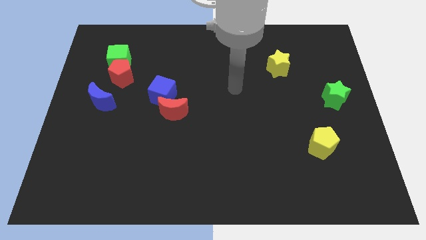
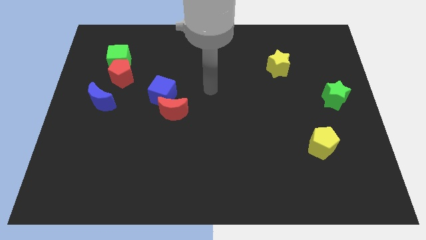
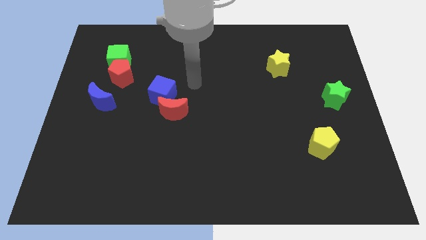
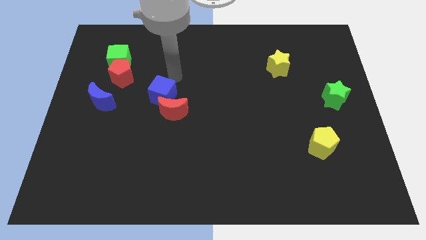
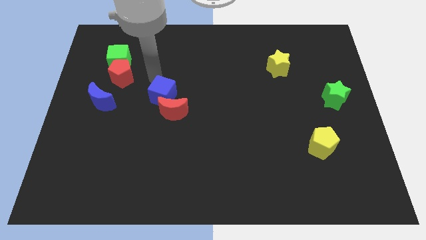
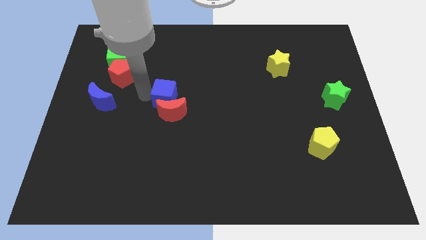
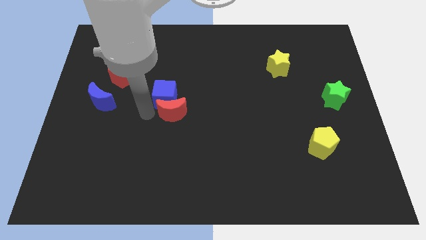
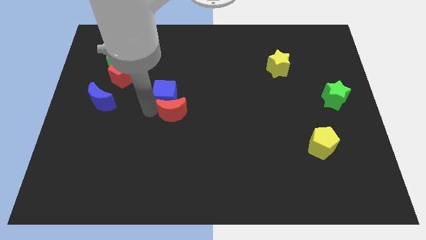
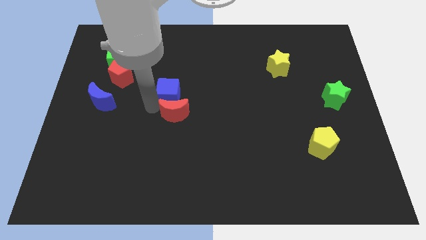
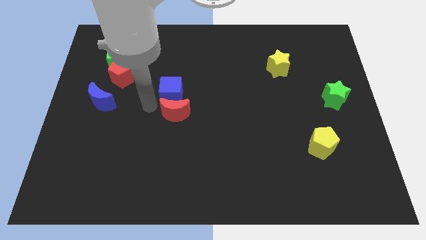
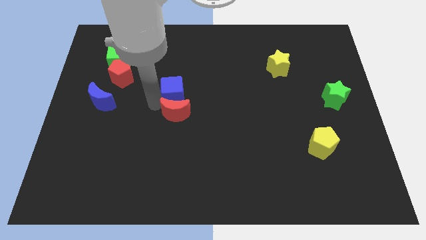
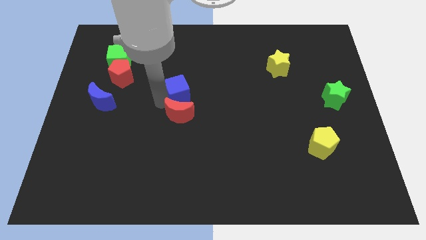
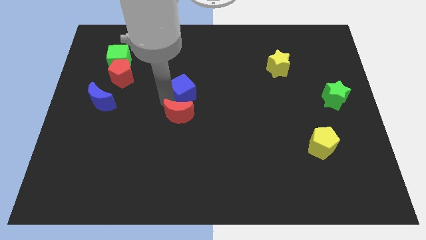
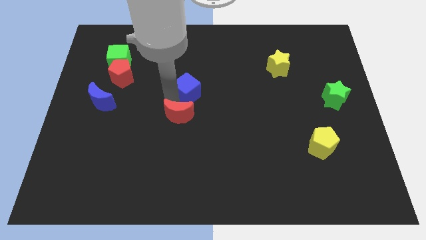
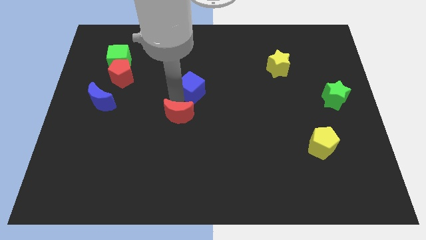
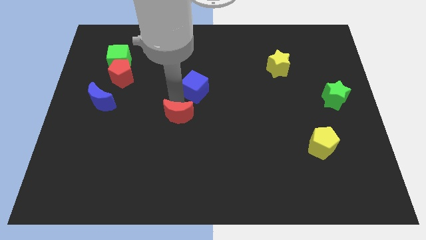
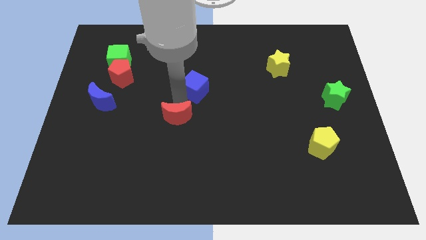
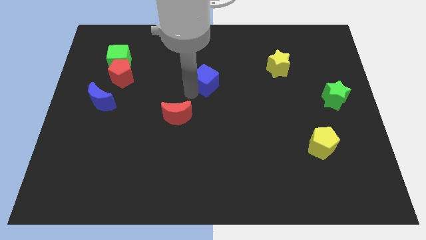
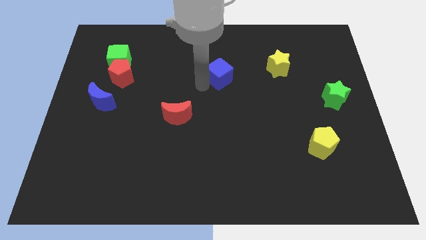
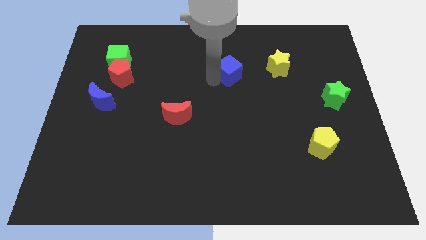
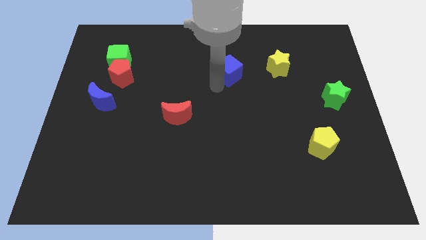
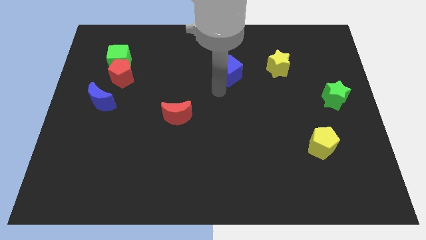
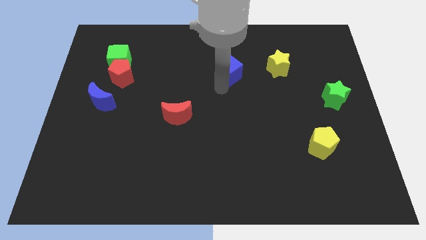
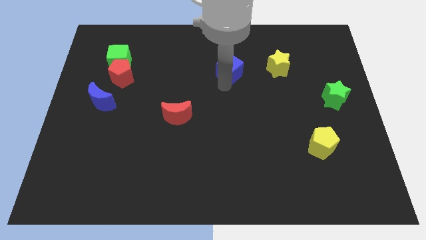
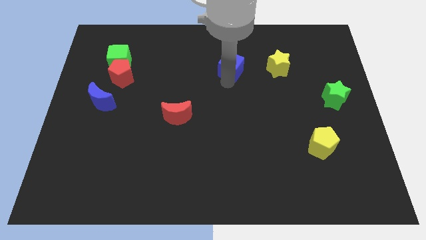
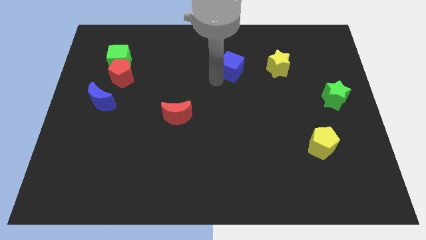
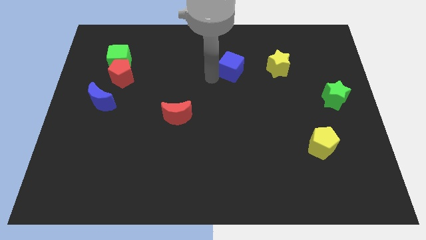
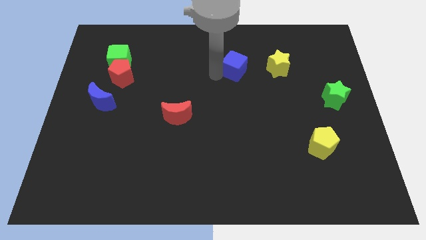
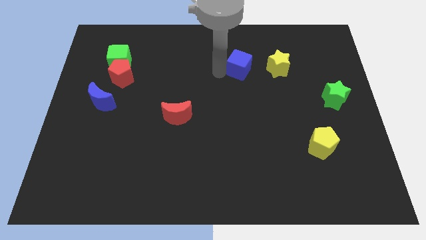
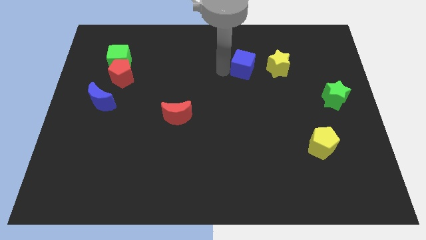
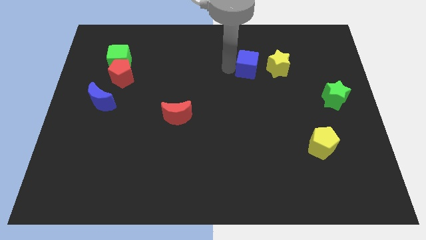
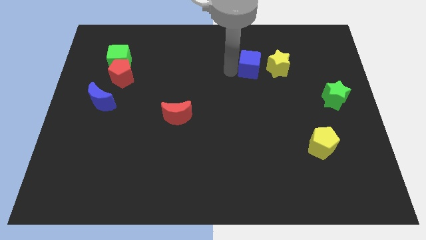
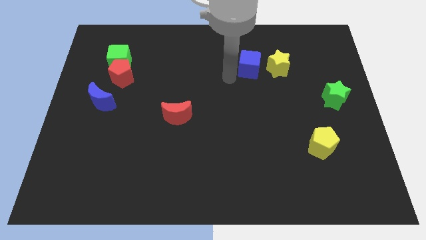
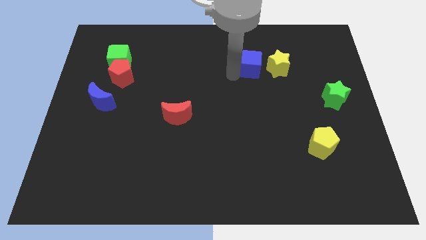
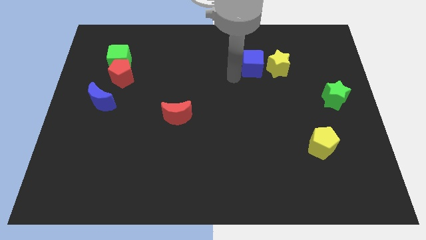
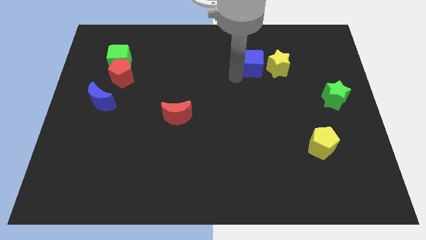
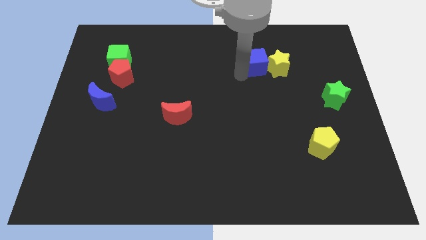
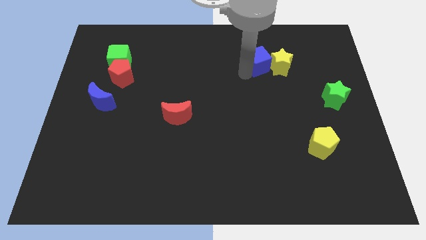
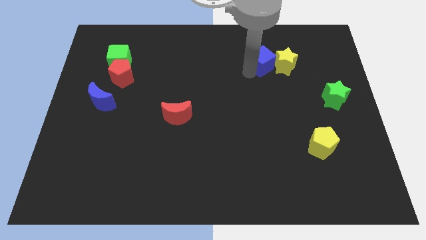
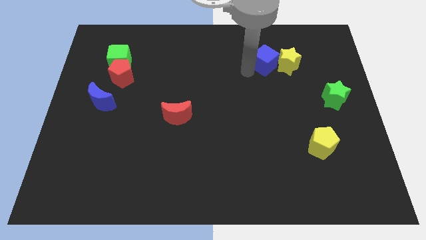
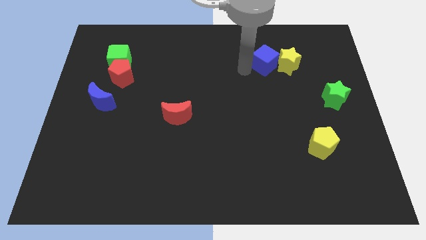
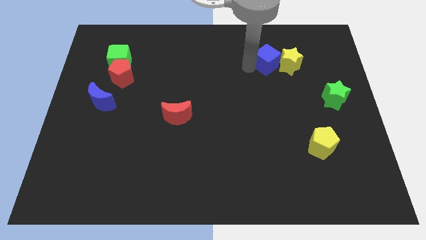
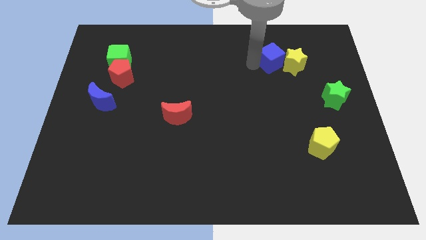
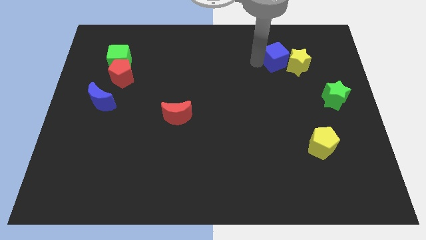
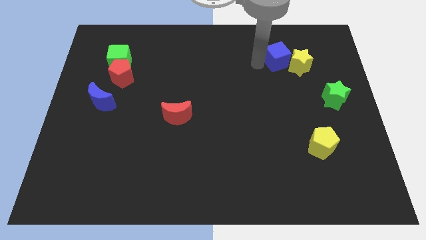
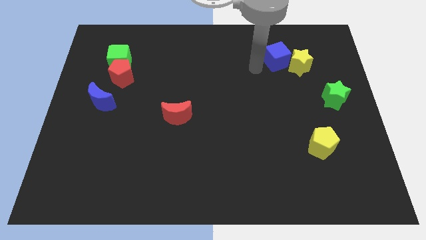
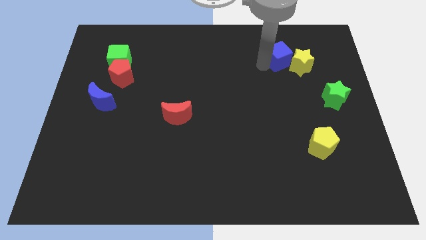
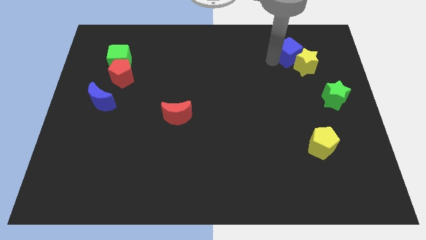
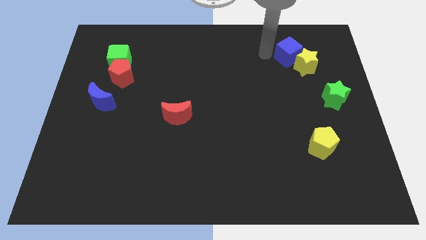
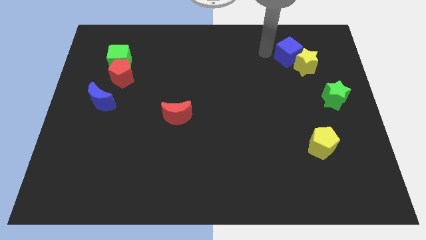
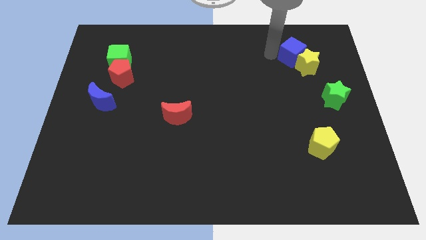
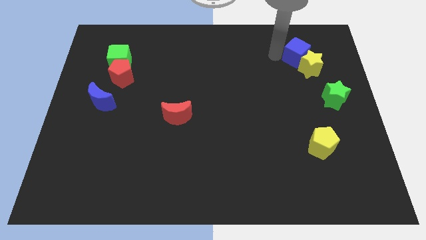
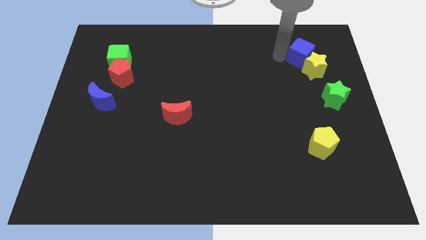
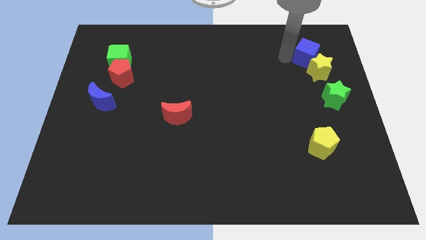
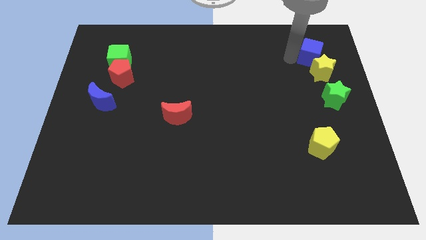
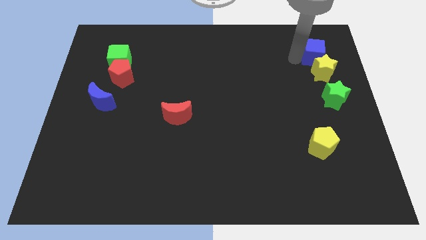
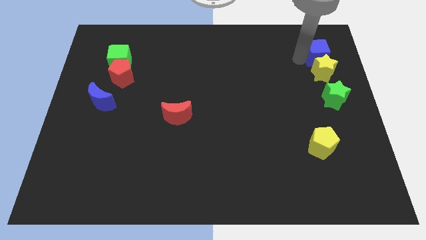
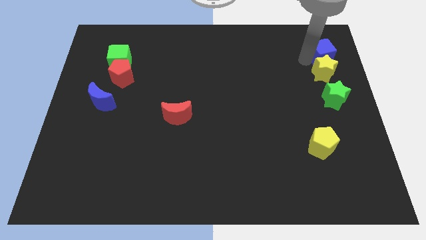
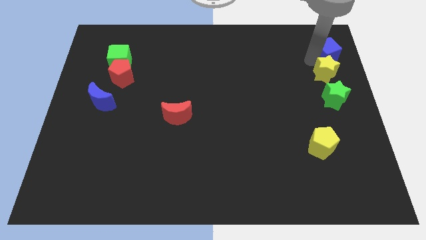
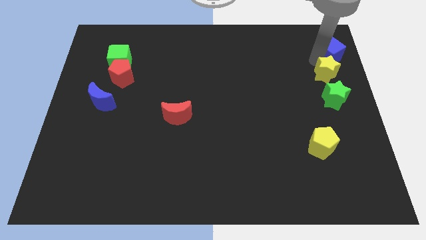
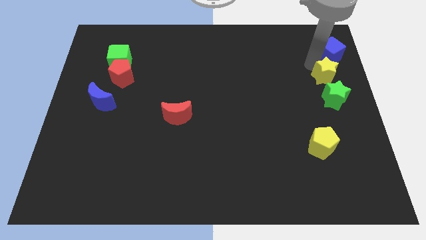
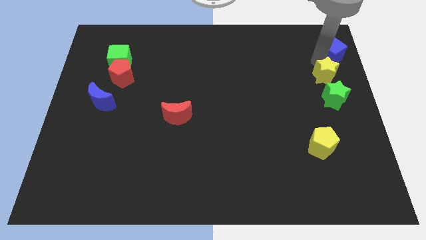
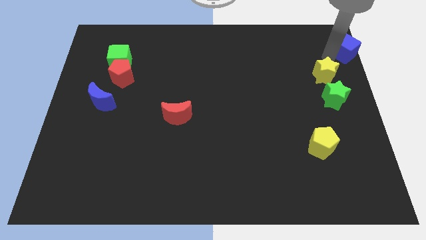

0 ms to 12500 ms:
slide the blue cube to the upper right corner
